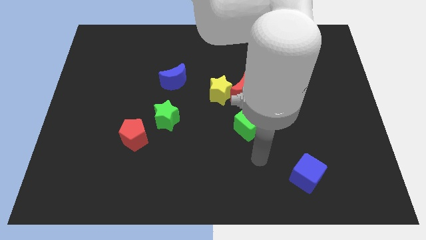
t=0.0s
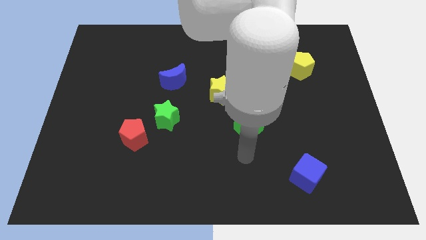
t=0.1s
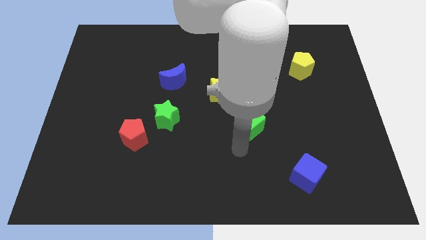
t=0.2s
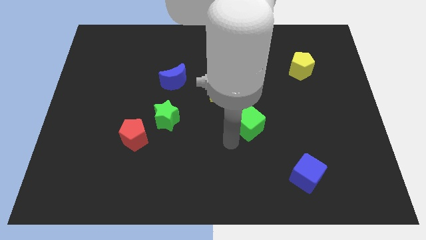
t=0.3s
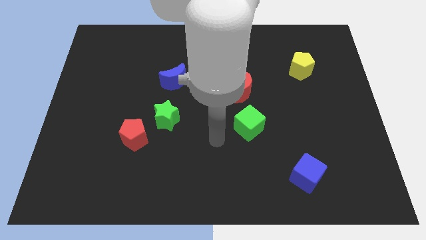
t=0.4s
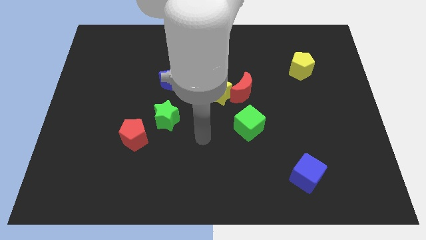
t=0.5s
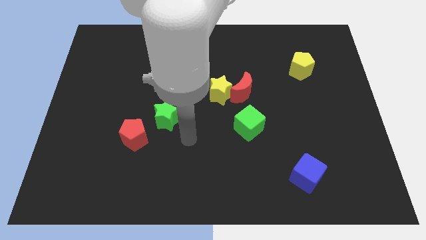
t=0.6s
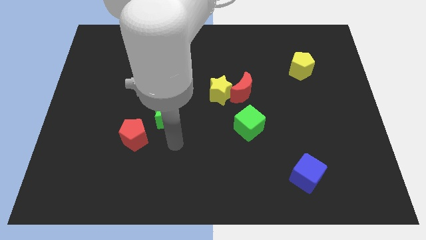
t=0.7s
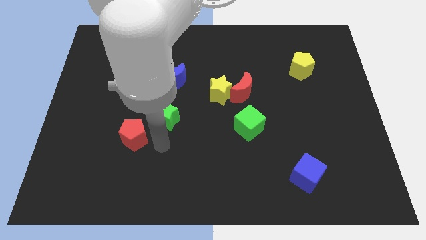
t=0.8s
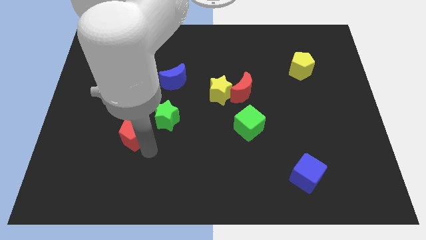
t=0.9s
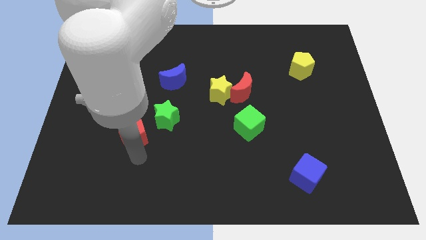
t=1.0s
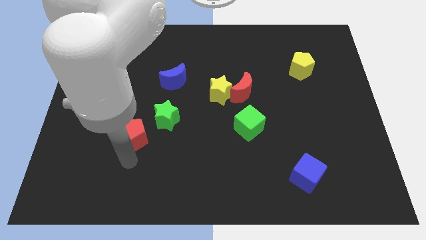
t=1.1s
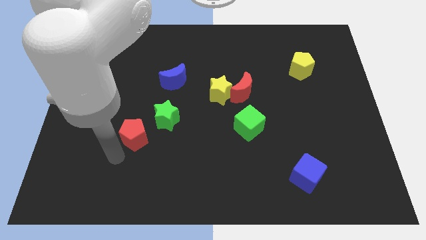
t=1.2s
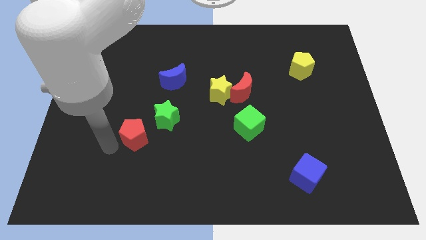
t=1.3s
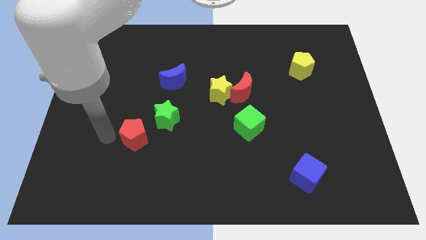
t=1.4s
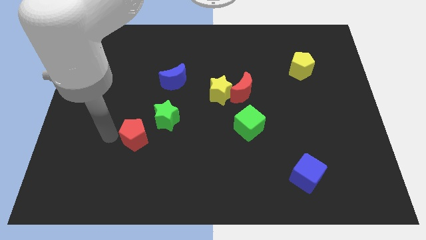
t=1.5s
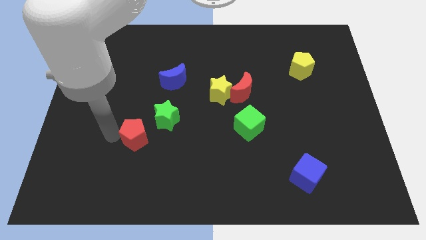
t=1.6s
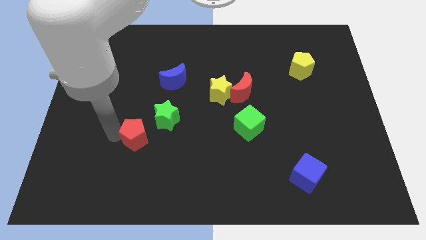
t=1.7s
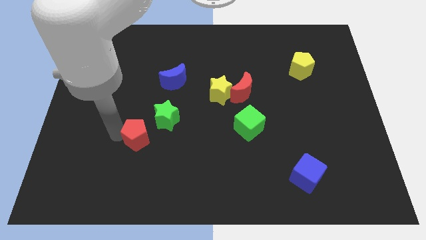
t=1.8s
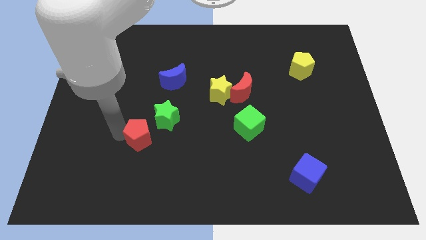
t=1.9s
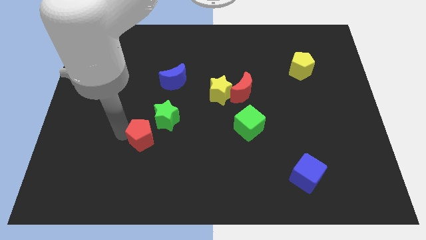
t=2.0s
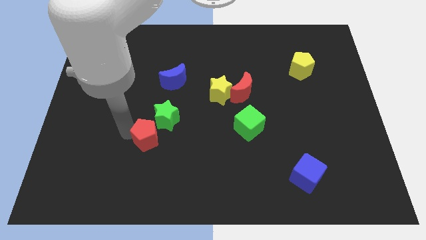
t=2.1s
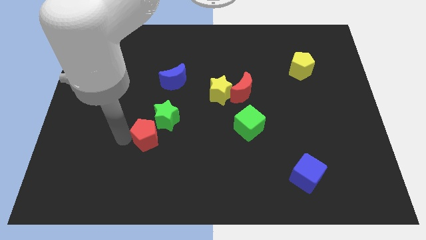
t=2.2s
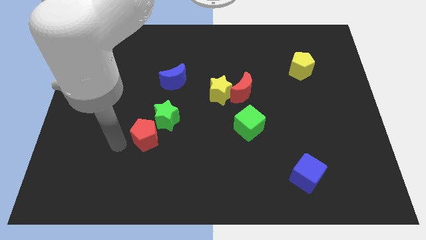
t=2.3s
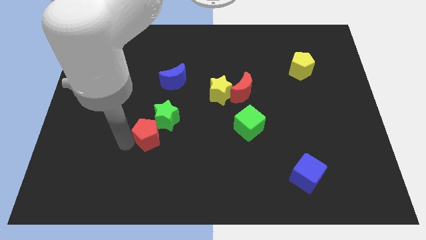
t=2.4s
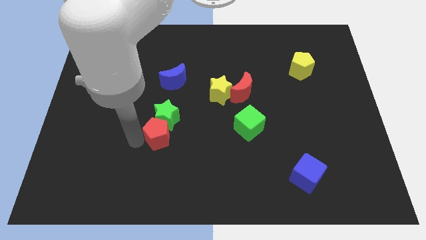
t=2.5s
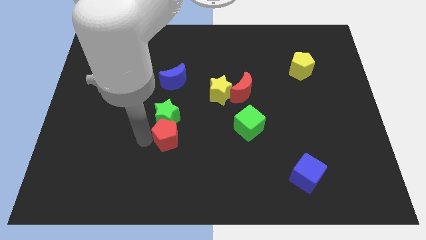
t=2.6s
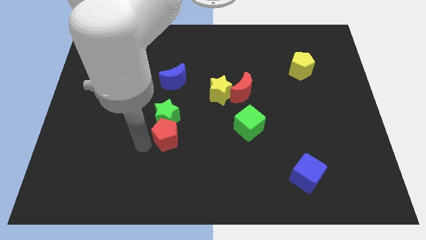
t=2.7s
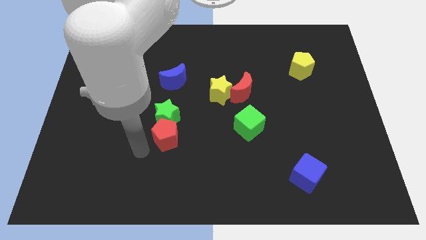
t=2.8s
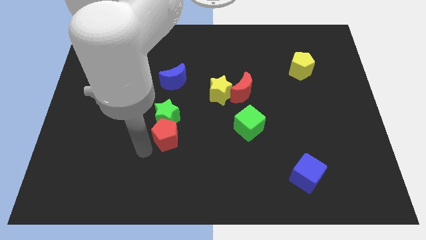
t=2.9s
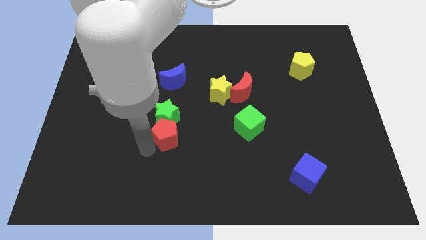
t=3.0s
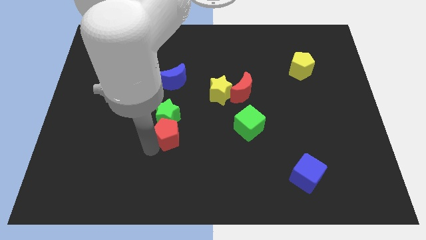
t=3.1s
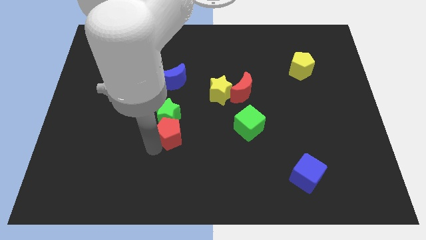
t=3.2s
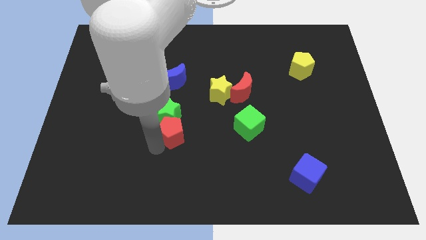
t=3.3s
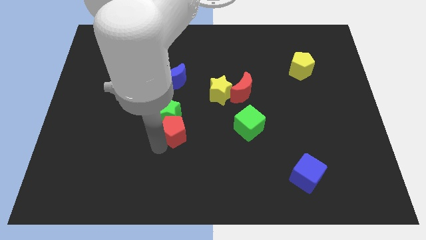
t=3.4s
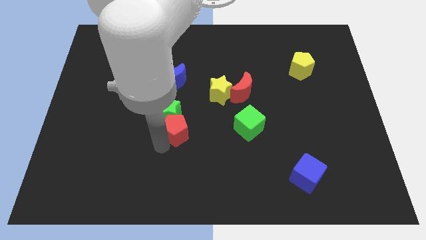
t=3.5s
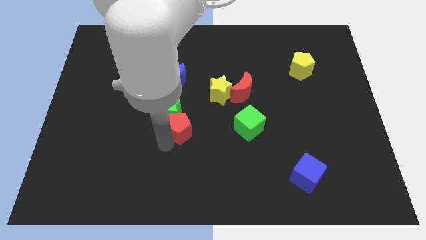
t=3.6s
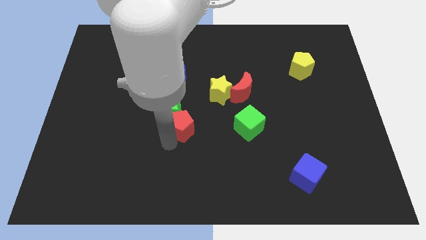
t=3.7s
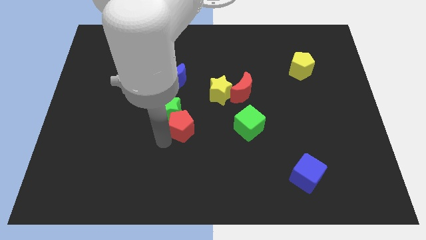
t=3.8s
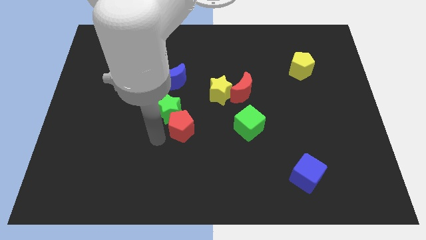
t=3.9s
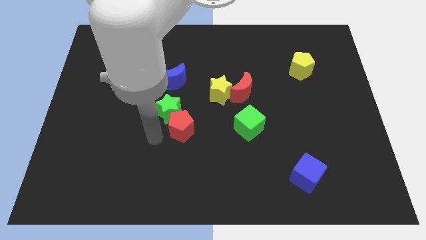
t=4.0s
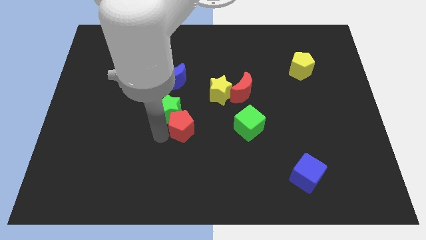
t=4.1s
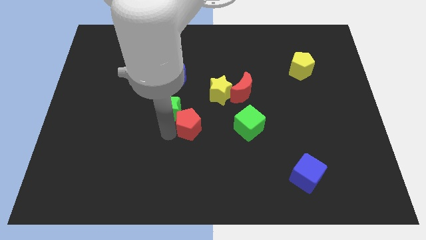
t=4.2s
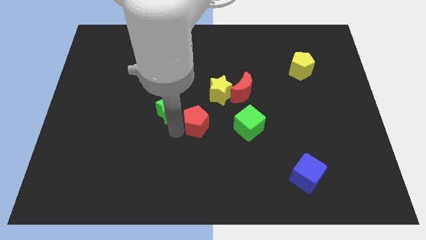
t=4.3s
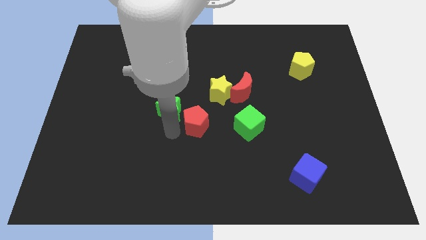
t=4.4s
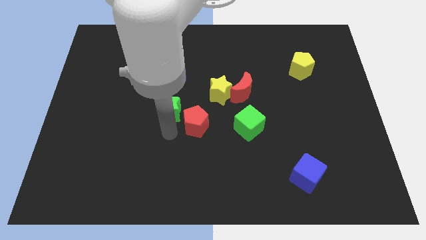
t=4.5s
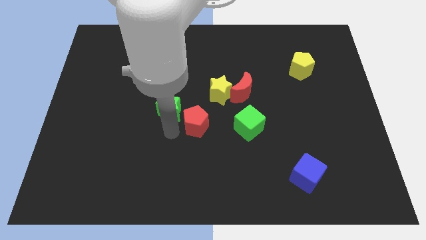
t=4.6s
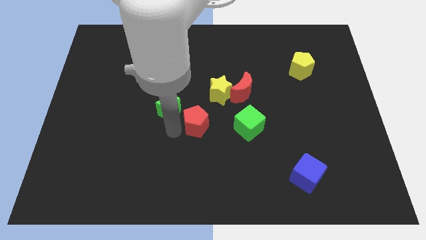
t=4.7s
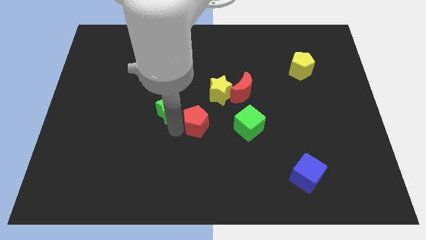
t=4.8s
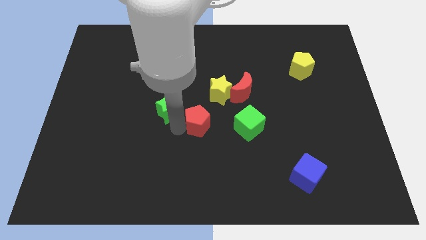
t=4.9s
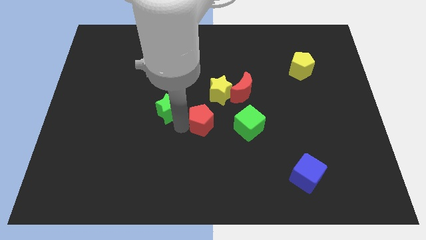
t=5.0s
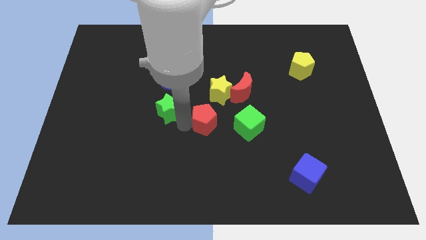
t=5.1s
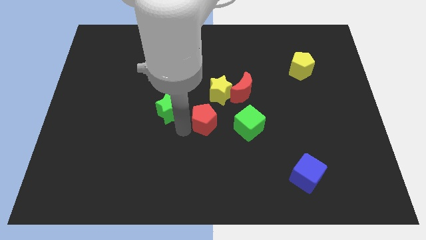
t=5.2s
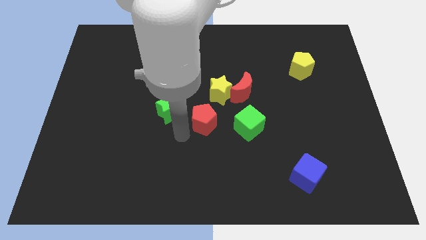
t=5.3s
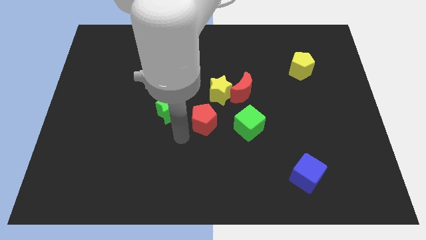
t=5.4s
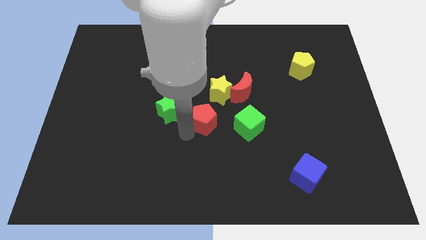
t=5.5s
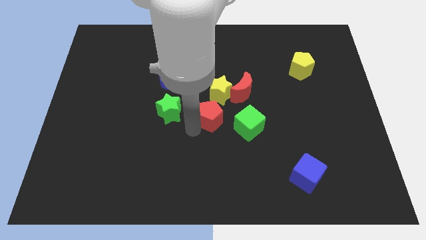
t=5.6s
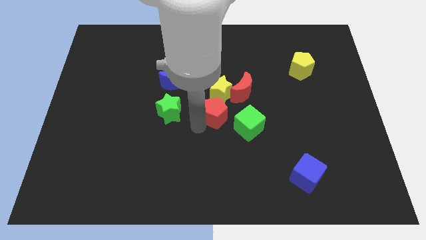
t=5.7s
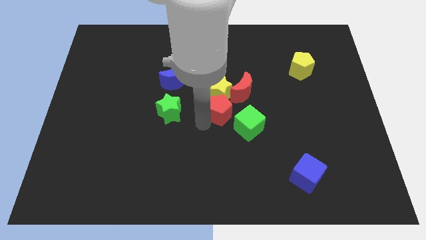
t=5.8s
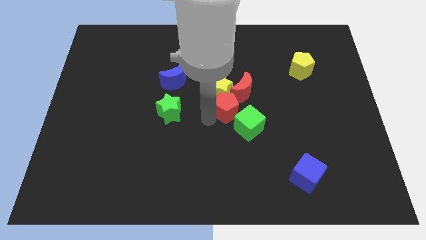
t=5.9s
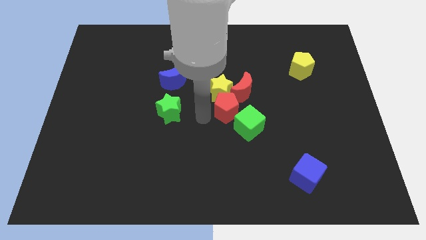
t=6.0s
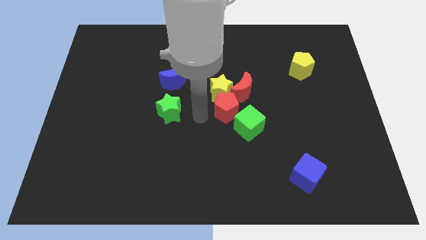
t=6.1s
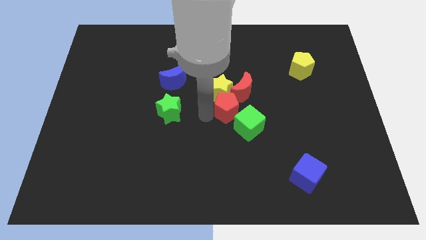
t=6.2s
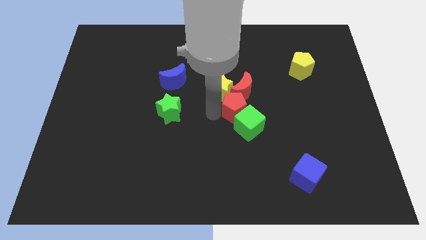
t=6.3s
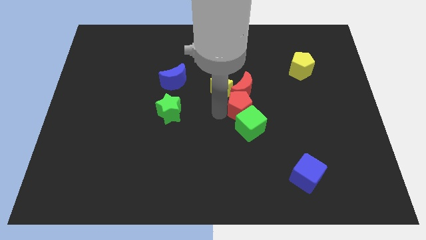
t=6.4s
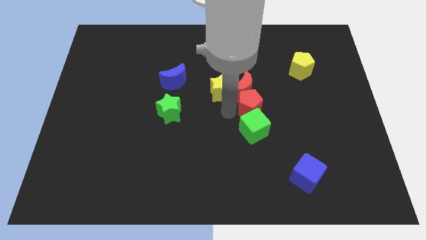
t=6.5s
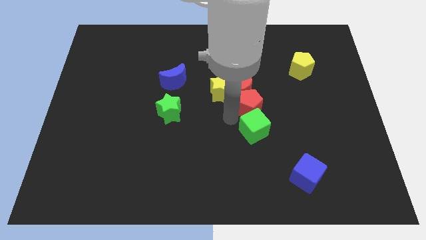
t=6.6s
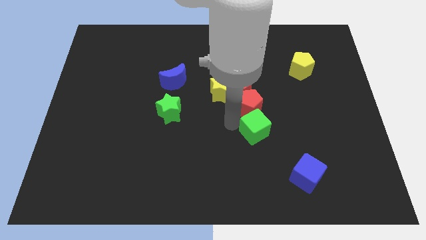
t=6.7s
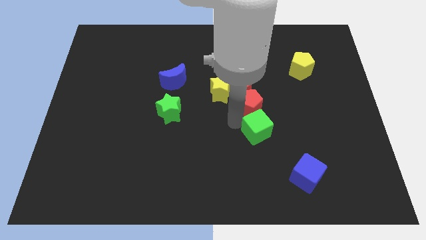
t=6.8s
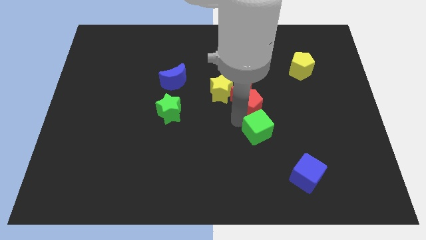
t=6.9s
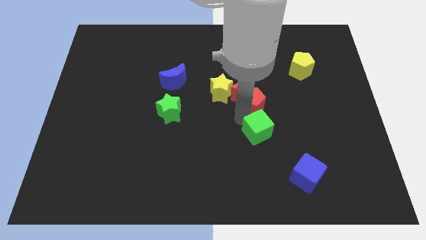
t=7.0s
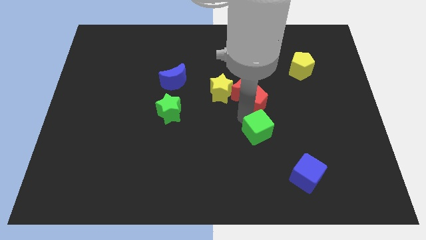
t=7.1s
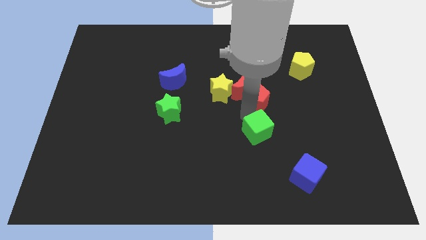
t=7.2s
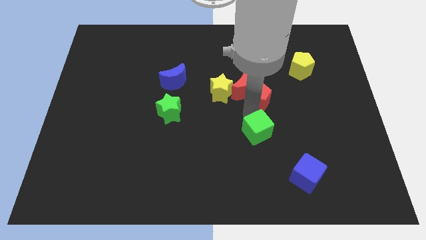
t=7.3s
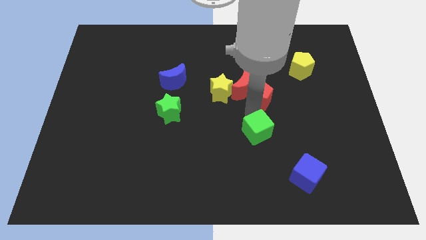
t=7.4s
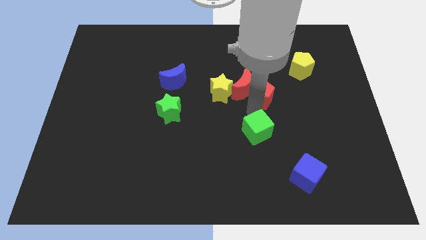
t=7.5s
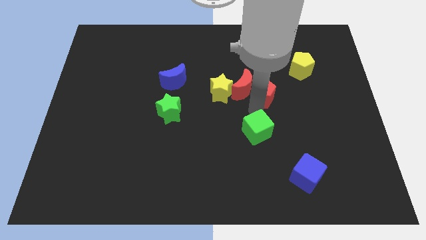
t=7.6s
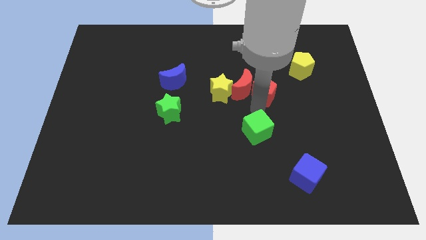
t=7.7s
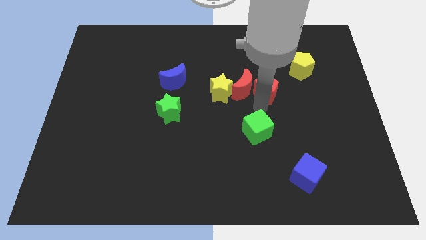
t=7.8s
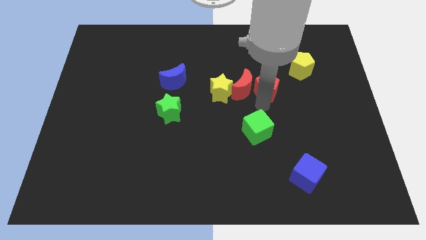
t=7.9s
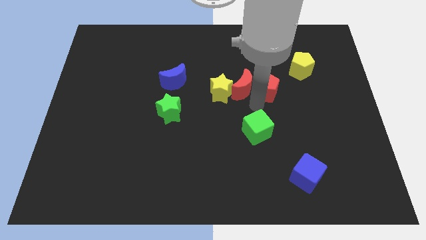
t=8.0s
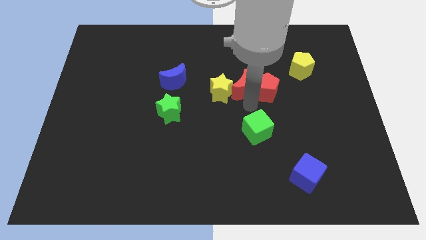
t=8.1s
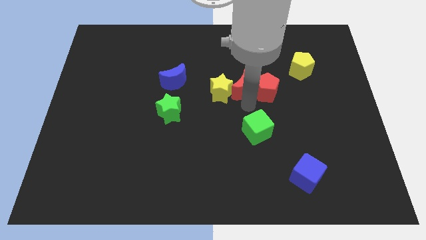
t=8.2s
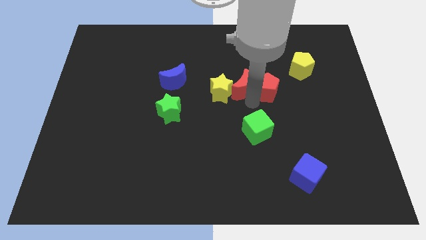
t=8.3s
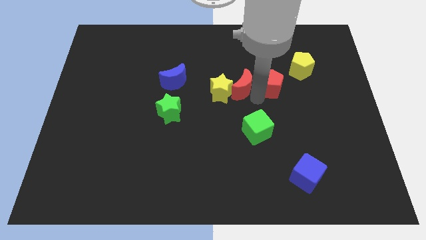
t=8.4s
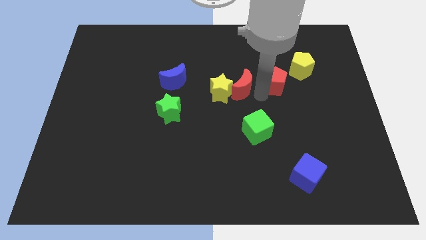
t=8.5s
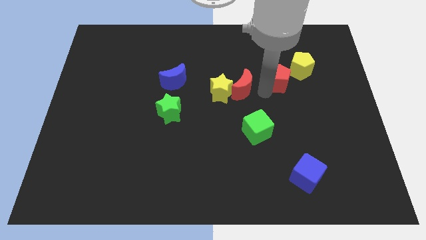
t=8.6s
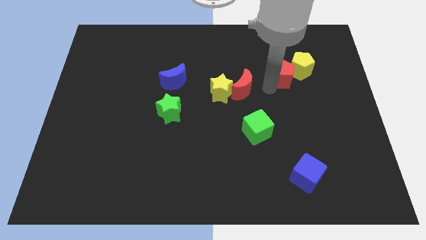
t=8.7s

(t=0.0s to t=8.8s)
push the red pentagon to the yellow pentagon
